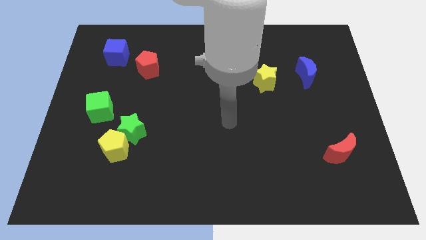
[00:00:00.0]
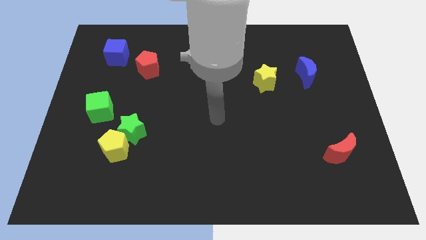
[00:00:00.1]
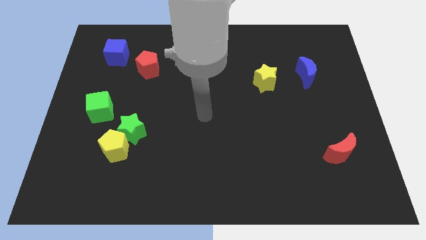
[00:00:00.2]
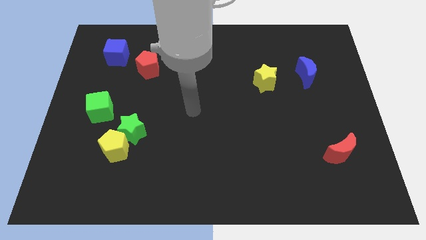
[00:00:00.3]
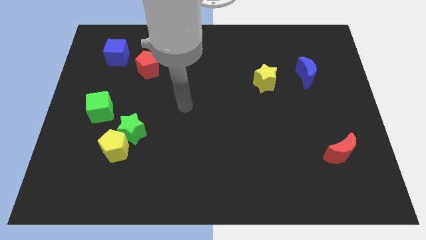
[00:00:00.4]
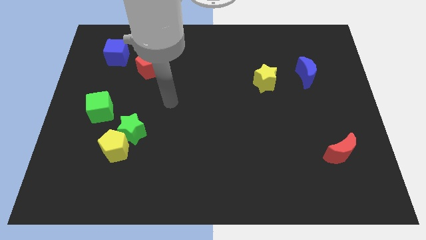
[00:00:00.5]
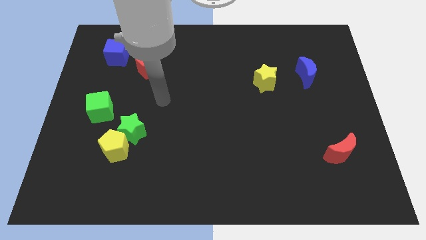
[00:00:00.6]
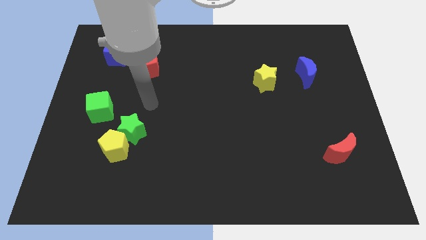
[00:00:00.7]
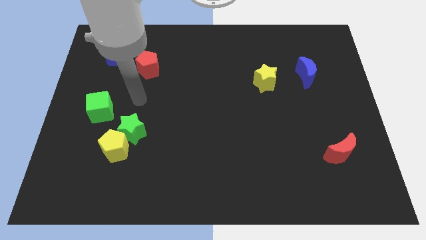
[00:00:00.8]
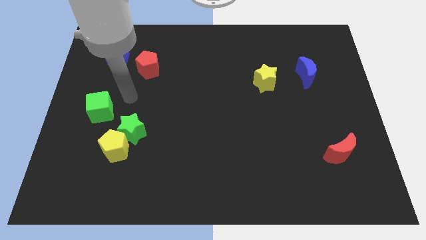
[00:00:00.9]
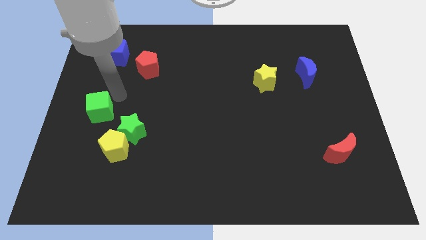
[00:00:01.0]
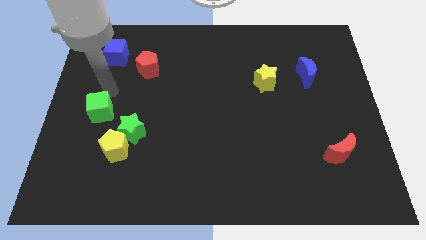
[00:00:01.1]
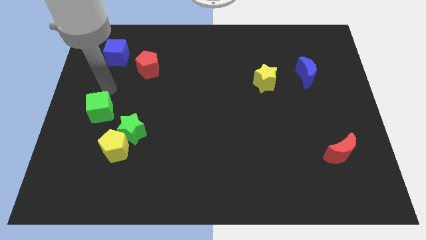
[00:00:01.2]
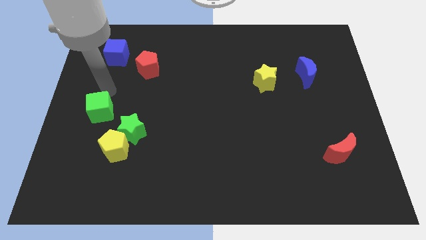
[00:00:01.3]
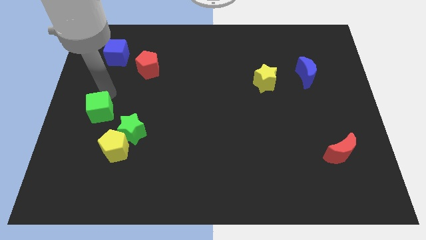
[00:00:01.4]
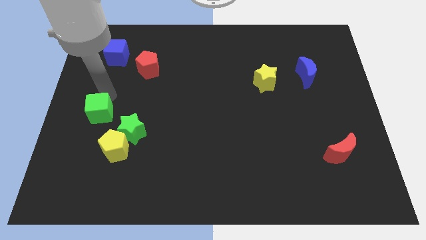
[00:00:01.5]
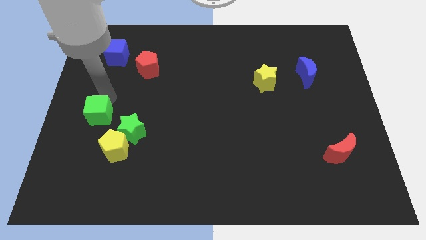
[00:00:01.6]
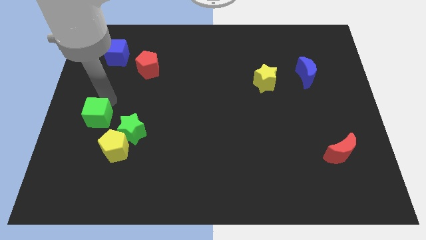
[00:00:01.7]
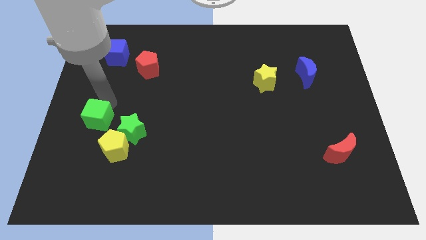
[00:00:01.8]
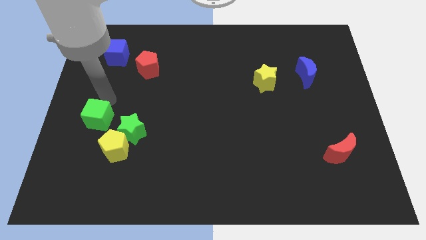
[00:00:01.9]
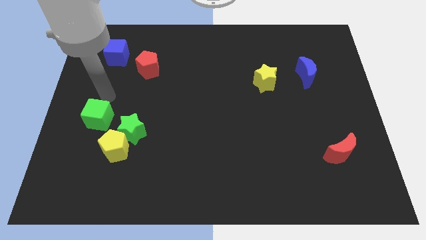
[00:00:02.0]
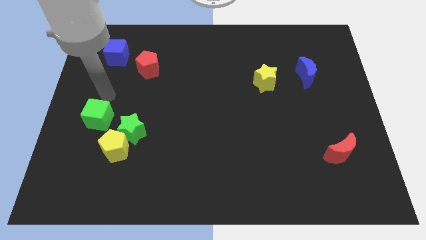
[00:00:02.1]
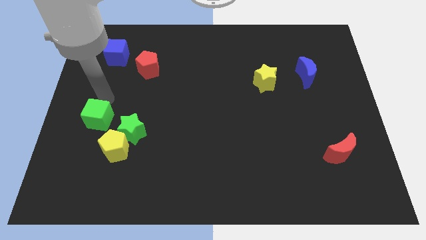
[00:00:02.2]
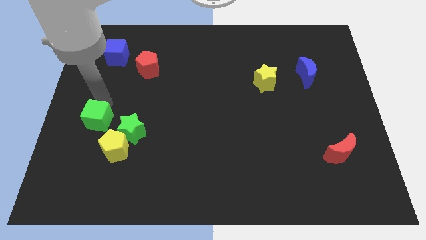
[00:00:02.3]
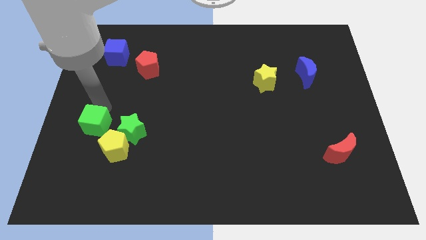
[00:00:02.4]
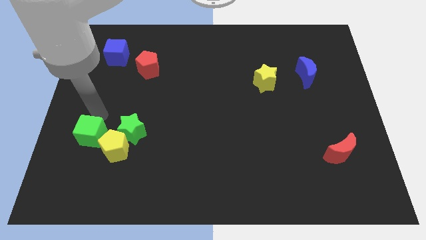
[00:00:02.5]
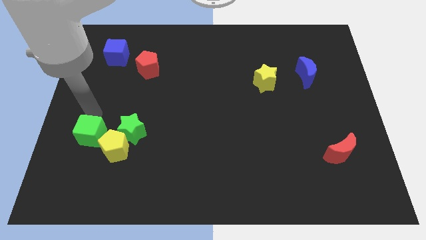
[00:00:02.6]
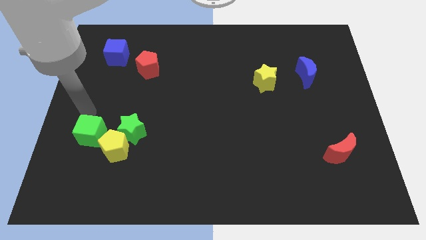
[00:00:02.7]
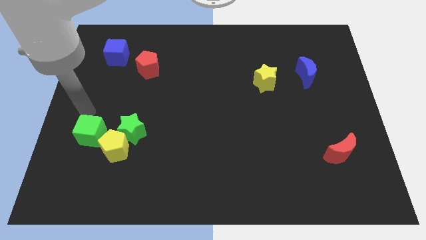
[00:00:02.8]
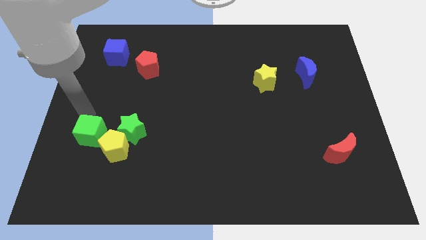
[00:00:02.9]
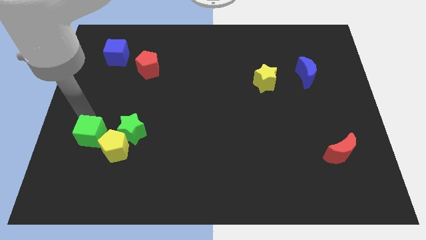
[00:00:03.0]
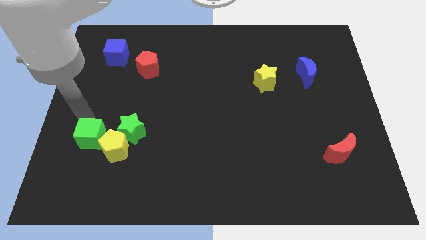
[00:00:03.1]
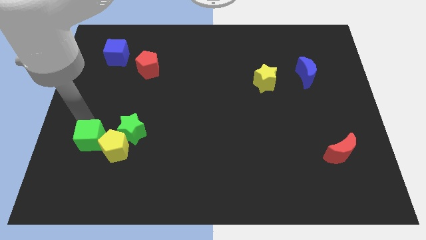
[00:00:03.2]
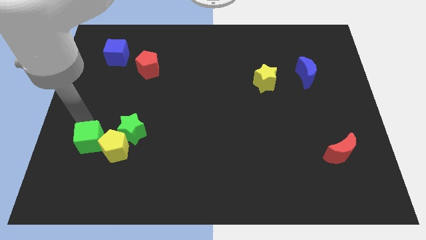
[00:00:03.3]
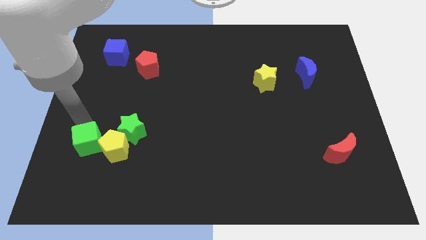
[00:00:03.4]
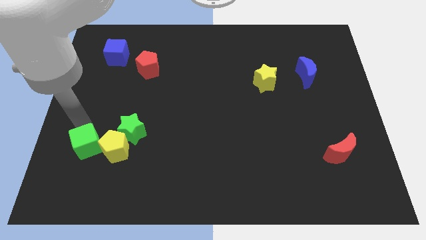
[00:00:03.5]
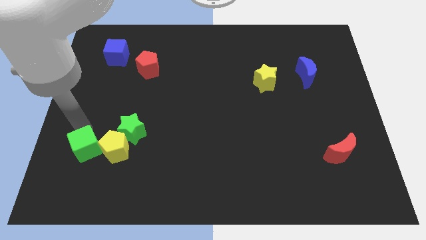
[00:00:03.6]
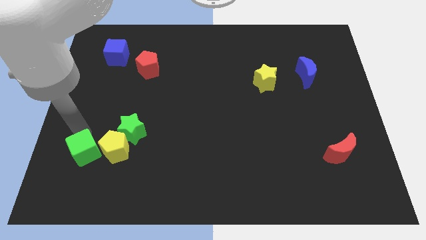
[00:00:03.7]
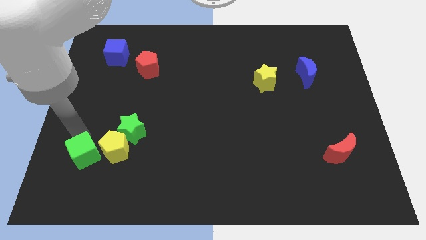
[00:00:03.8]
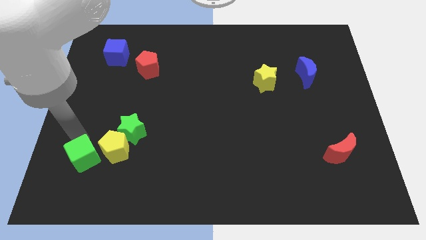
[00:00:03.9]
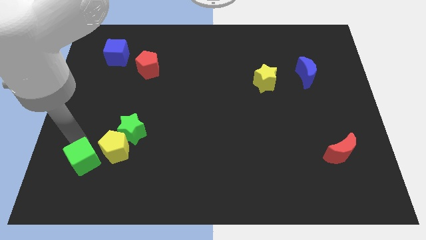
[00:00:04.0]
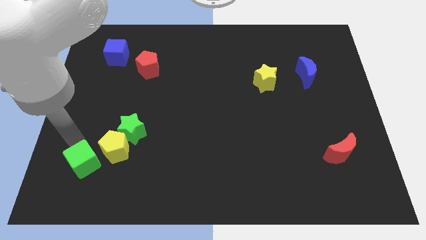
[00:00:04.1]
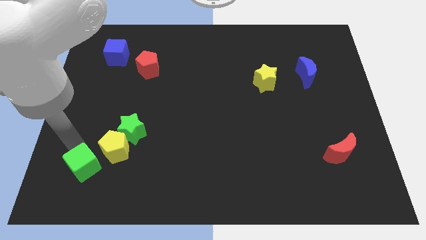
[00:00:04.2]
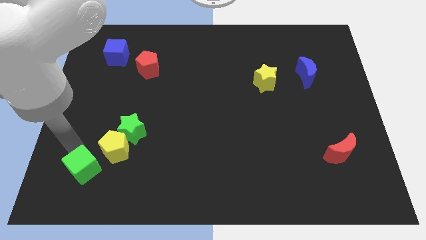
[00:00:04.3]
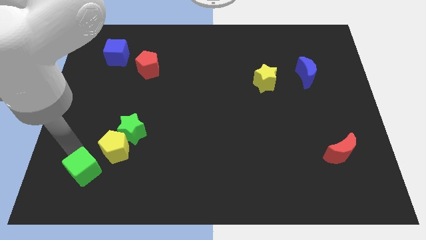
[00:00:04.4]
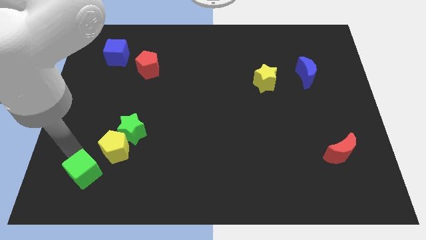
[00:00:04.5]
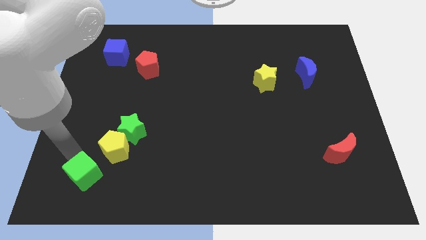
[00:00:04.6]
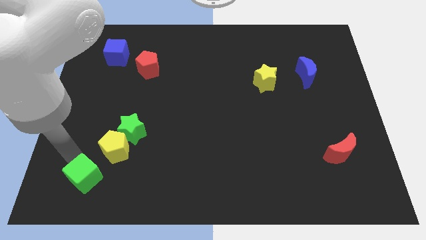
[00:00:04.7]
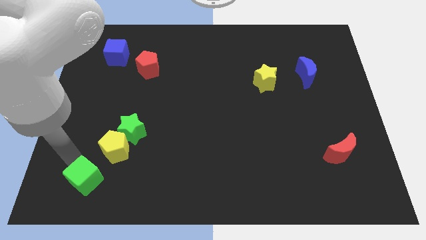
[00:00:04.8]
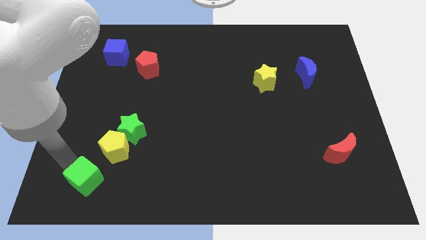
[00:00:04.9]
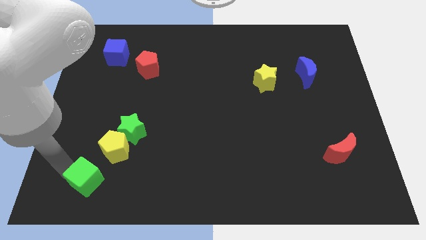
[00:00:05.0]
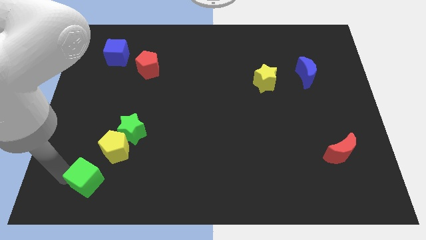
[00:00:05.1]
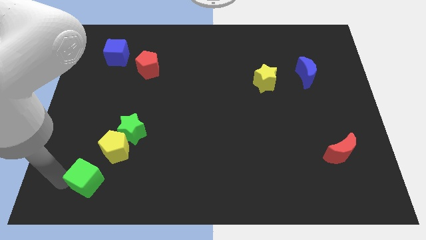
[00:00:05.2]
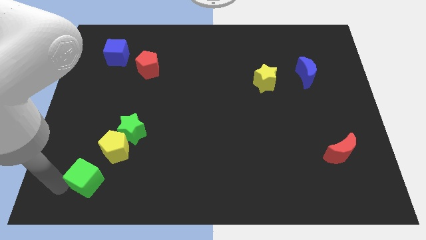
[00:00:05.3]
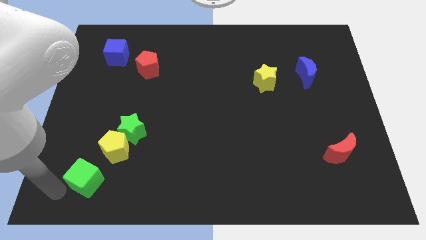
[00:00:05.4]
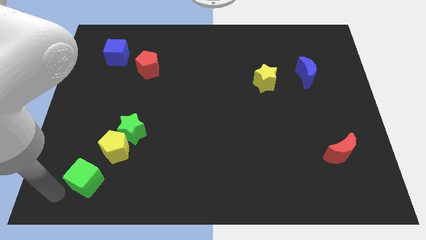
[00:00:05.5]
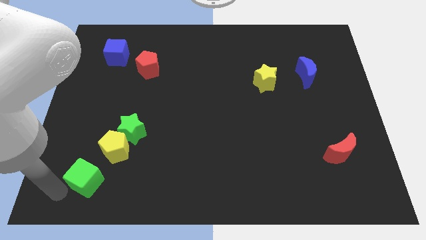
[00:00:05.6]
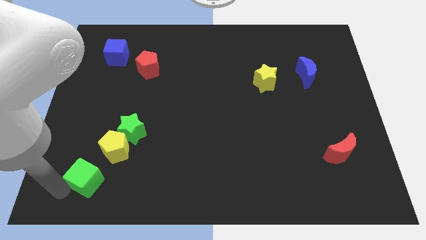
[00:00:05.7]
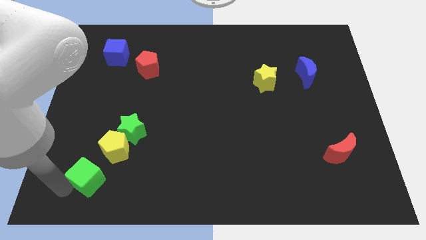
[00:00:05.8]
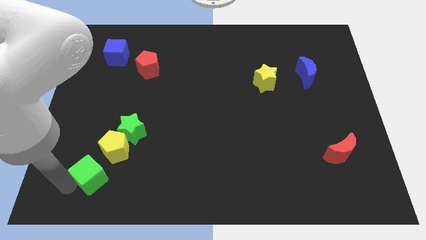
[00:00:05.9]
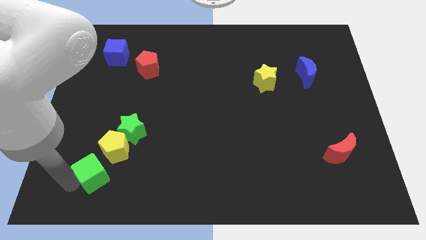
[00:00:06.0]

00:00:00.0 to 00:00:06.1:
slide the green cube down and right a little bit

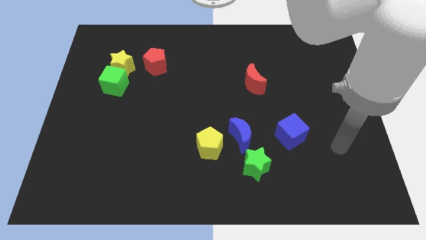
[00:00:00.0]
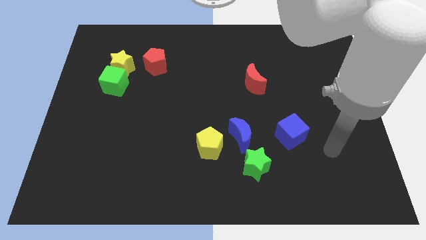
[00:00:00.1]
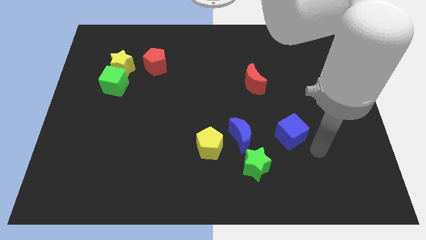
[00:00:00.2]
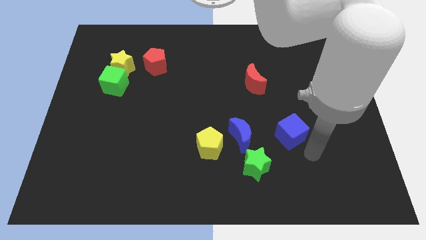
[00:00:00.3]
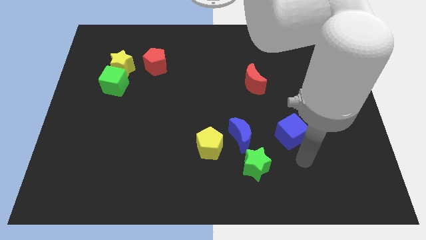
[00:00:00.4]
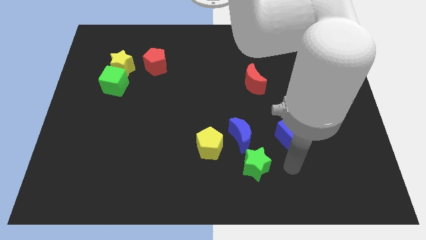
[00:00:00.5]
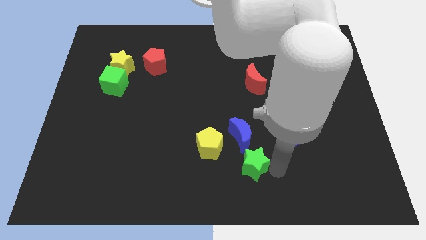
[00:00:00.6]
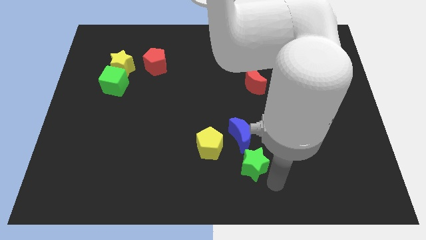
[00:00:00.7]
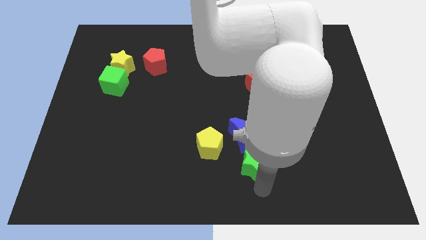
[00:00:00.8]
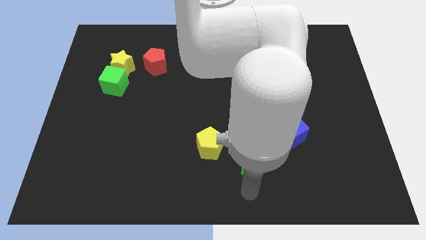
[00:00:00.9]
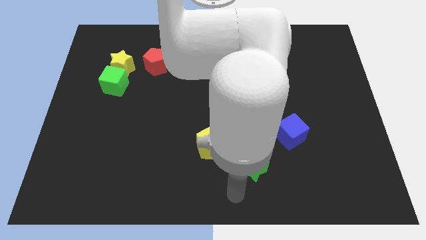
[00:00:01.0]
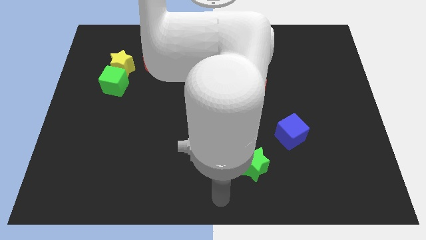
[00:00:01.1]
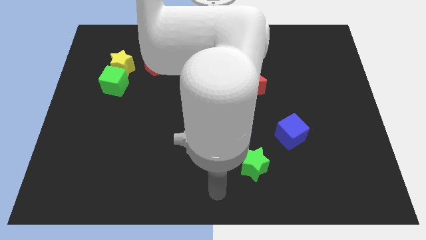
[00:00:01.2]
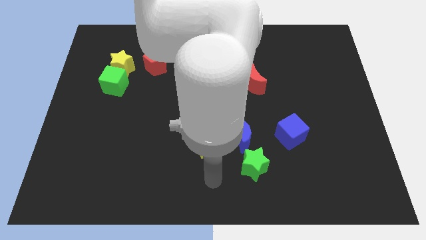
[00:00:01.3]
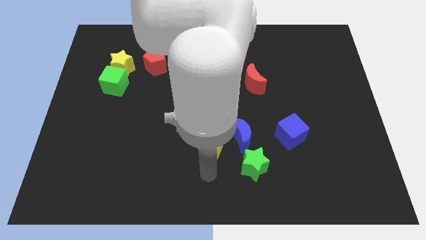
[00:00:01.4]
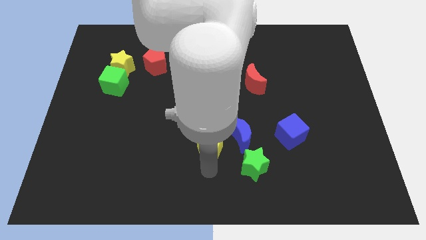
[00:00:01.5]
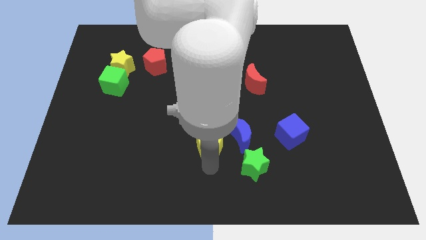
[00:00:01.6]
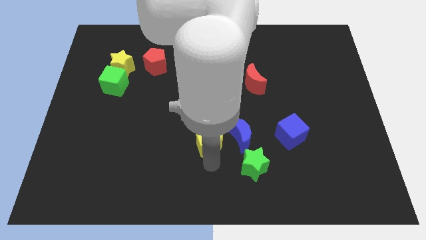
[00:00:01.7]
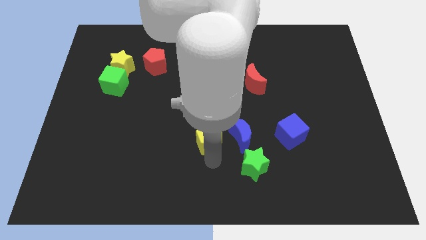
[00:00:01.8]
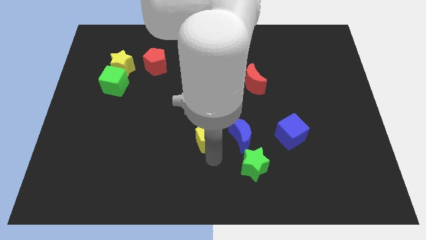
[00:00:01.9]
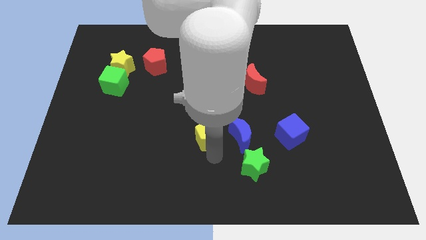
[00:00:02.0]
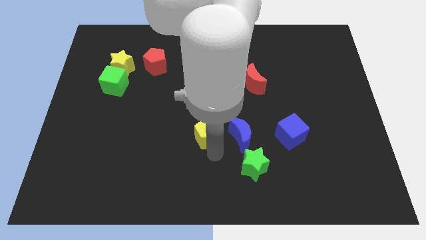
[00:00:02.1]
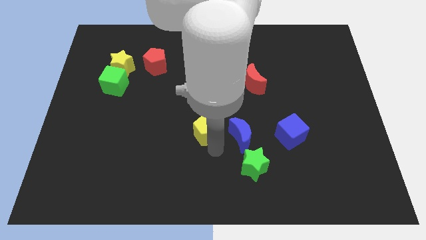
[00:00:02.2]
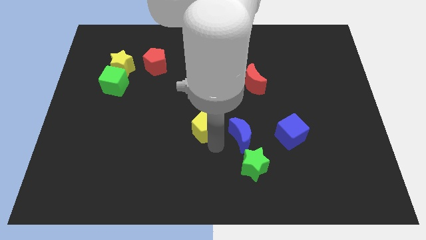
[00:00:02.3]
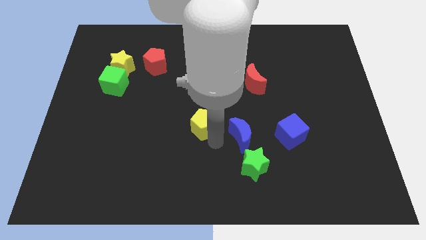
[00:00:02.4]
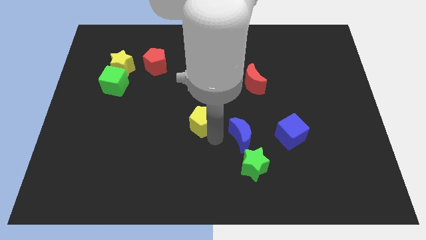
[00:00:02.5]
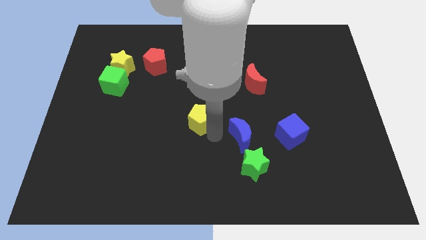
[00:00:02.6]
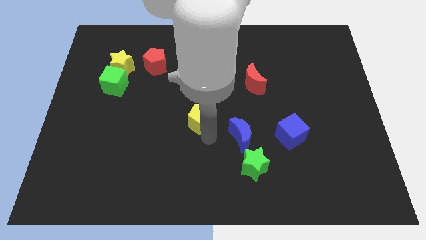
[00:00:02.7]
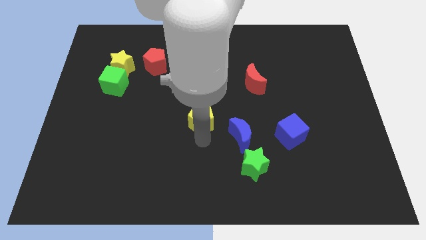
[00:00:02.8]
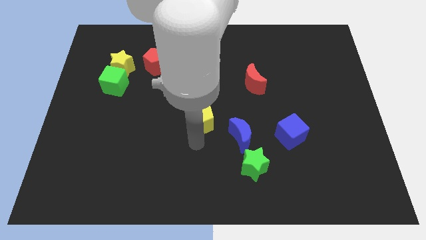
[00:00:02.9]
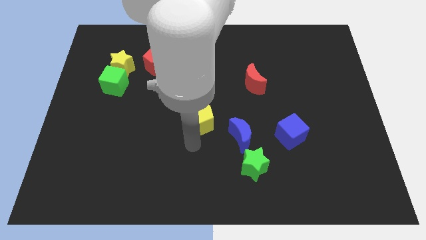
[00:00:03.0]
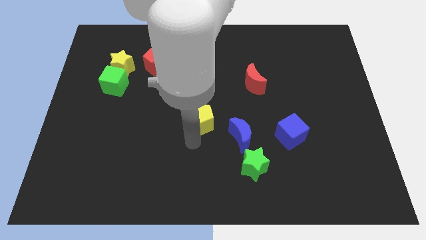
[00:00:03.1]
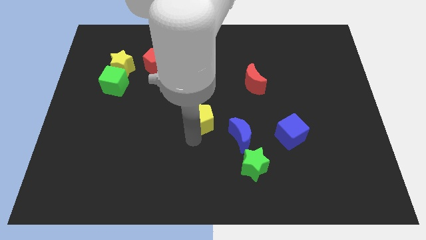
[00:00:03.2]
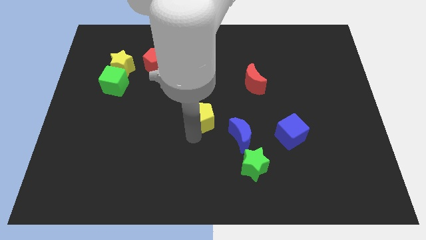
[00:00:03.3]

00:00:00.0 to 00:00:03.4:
slightly slide the yellow pentagon upwards
